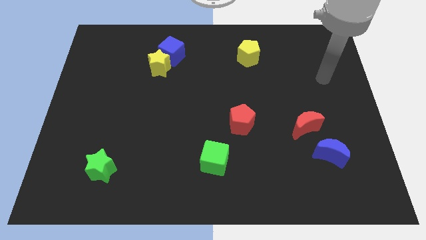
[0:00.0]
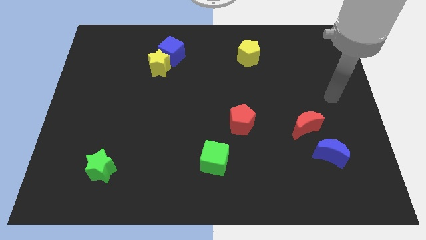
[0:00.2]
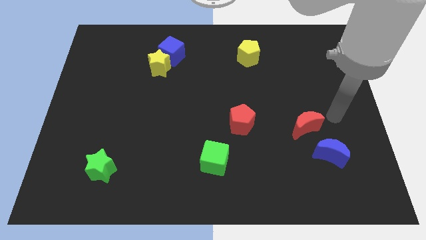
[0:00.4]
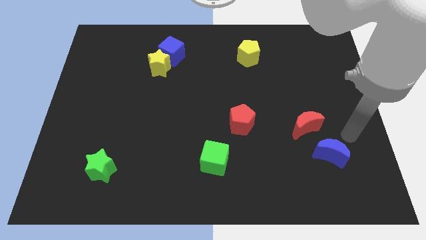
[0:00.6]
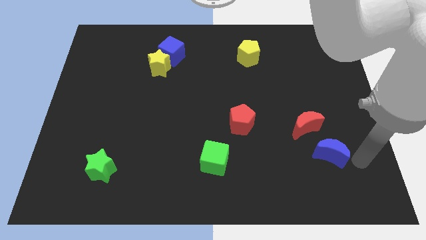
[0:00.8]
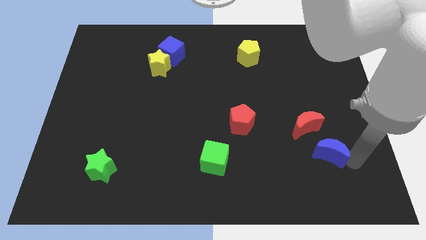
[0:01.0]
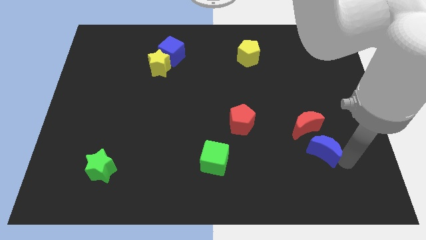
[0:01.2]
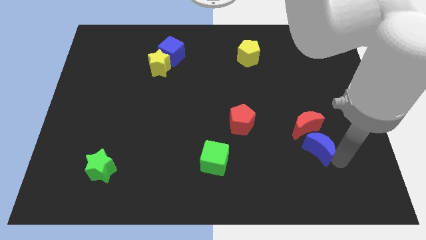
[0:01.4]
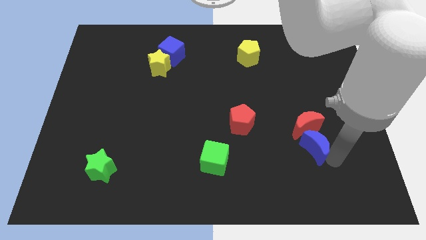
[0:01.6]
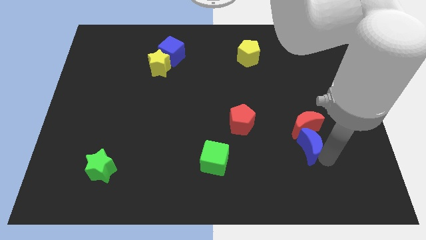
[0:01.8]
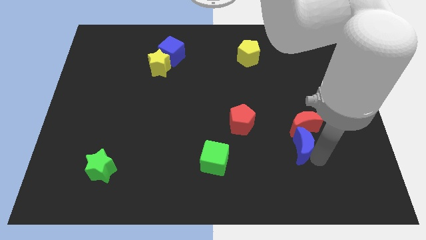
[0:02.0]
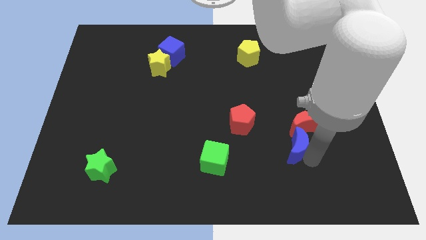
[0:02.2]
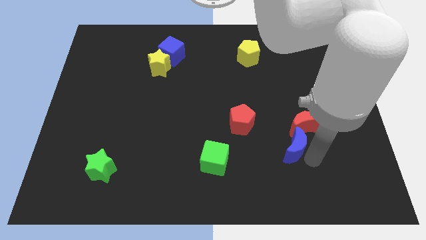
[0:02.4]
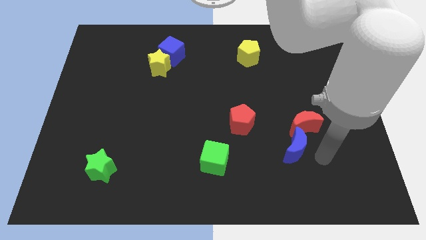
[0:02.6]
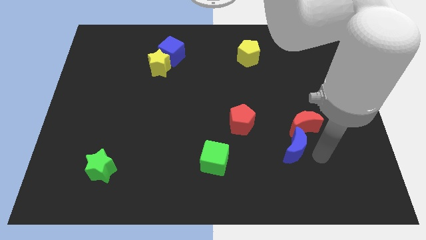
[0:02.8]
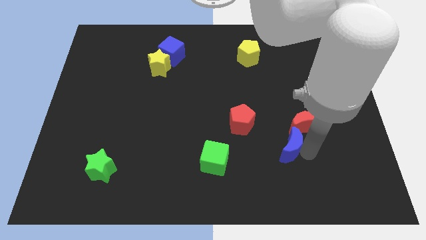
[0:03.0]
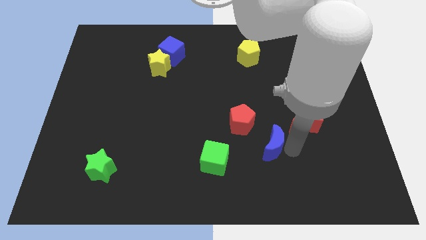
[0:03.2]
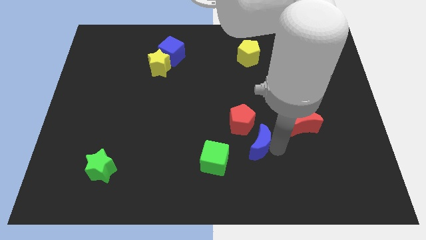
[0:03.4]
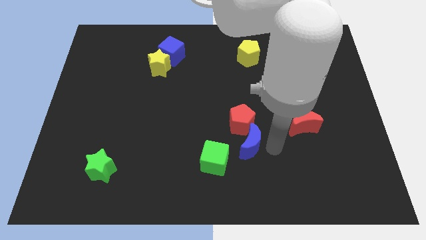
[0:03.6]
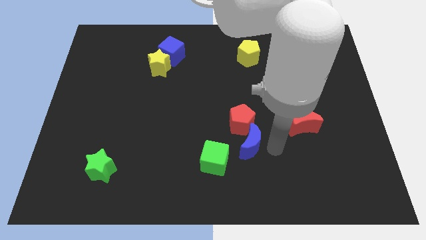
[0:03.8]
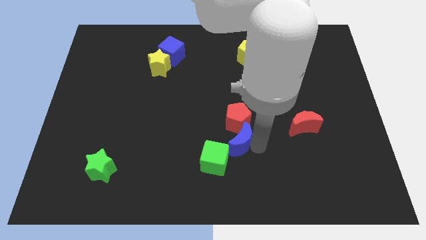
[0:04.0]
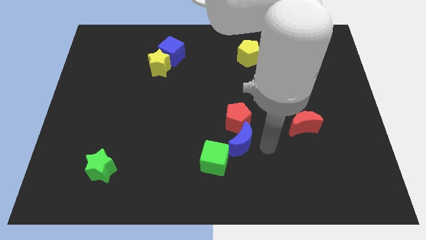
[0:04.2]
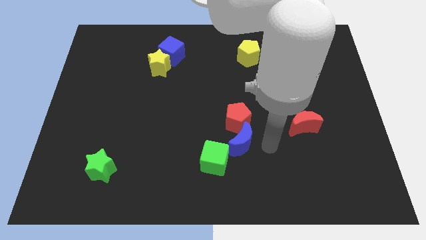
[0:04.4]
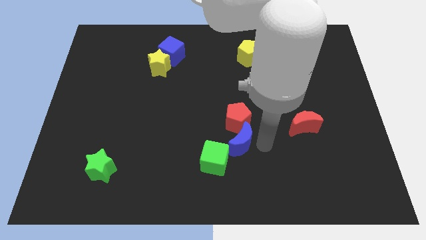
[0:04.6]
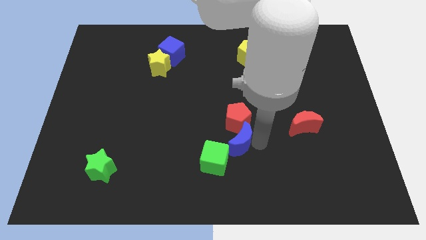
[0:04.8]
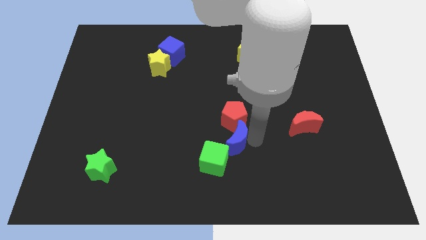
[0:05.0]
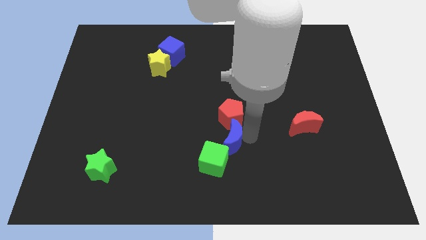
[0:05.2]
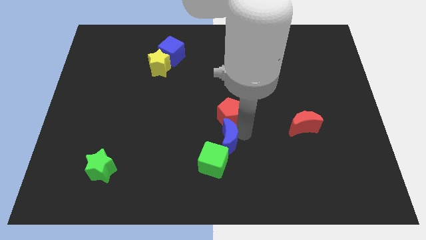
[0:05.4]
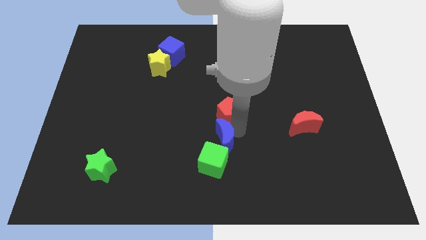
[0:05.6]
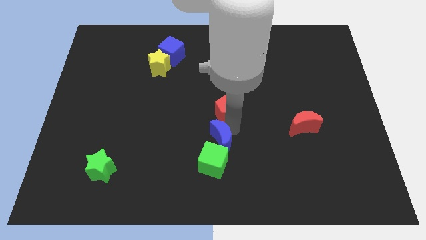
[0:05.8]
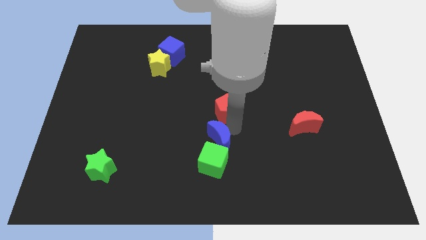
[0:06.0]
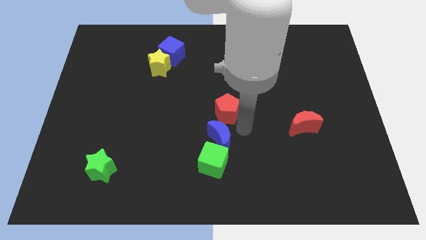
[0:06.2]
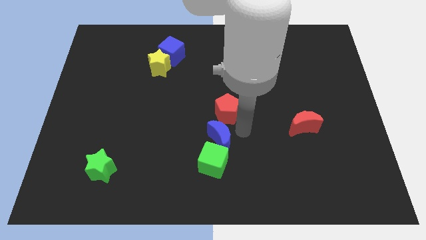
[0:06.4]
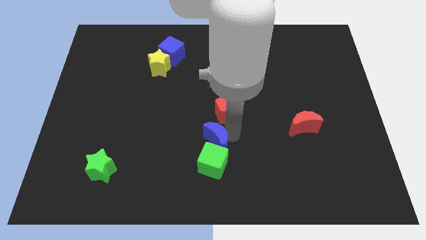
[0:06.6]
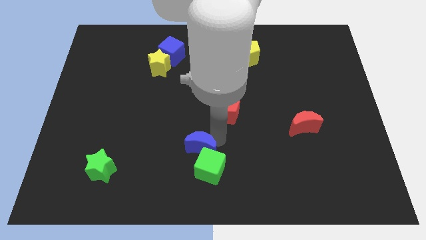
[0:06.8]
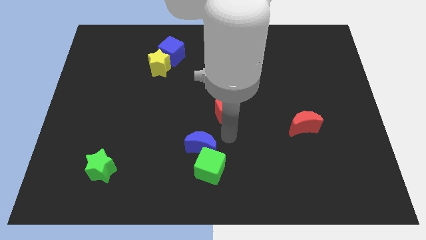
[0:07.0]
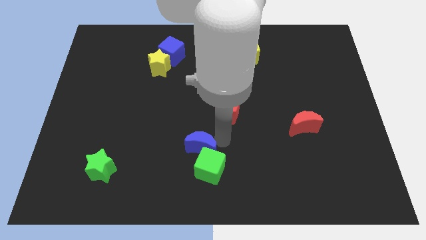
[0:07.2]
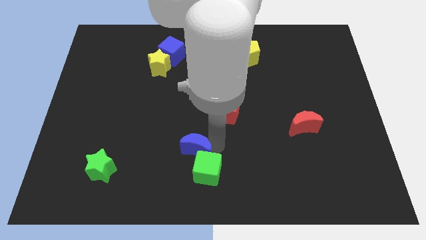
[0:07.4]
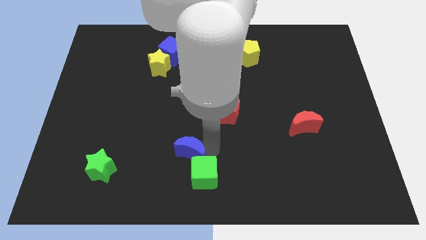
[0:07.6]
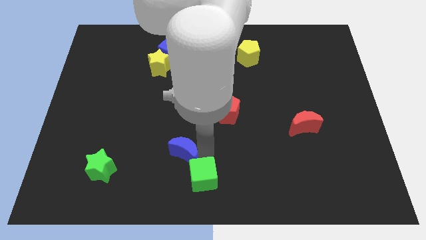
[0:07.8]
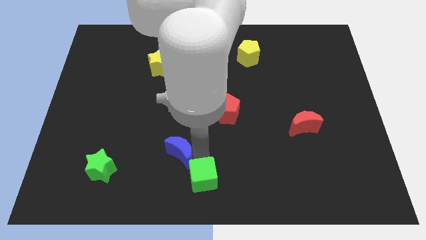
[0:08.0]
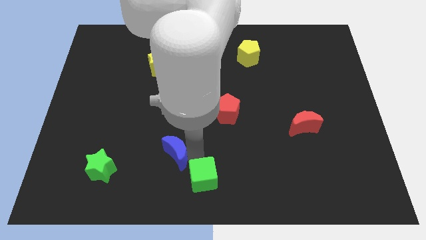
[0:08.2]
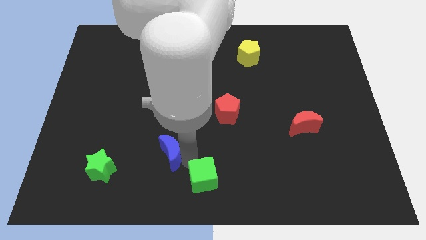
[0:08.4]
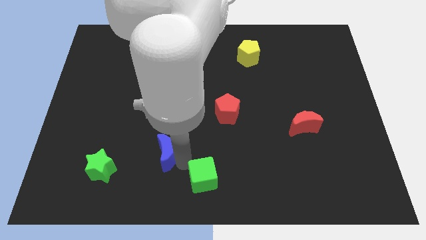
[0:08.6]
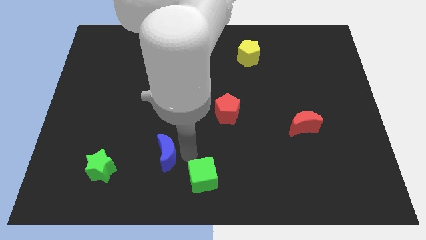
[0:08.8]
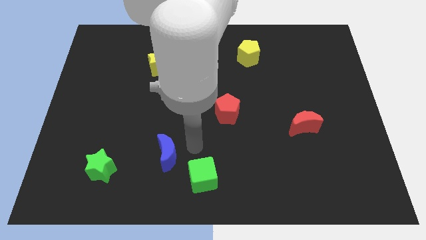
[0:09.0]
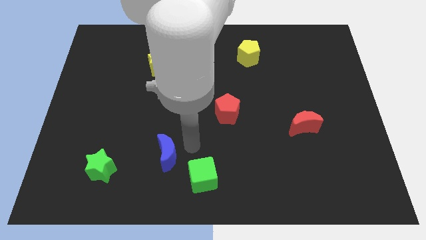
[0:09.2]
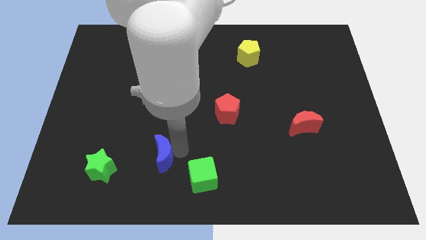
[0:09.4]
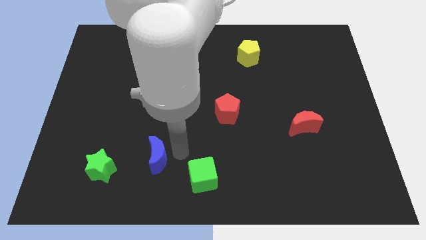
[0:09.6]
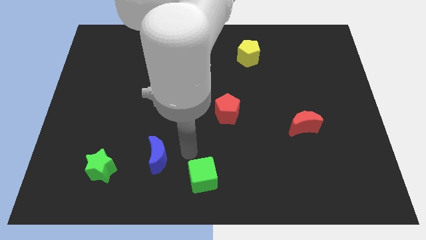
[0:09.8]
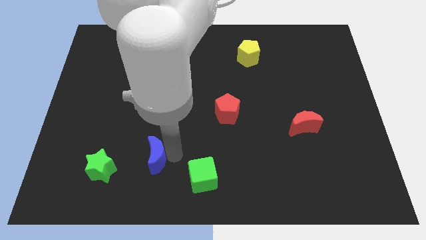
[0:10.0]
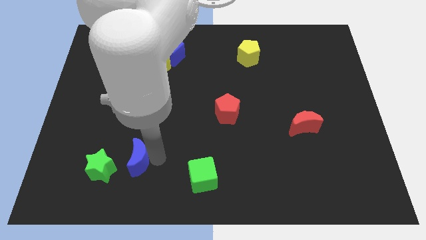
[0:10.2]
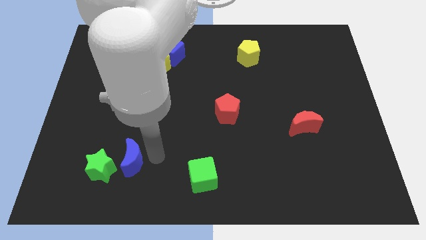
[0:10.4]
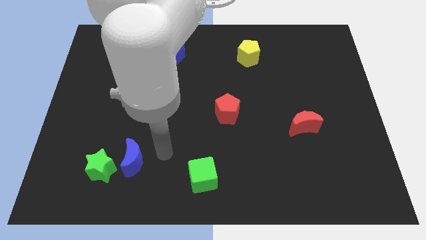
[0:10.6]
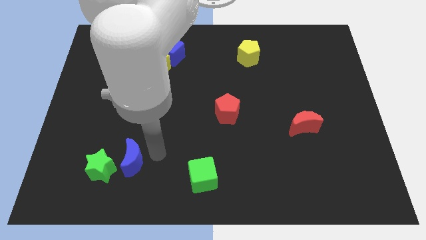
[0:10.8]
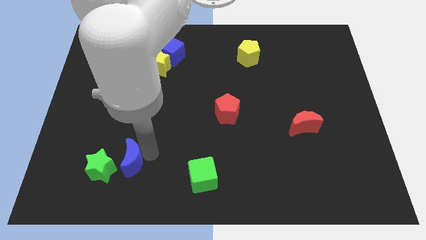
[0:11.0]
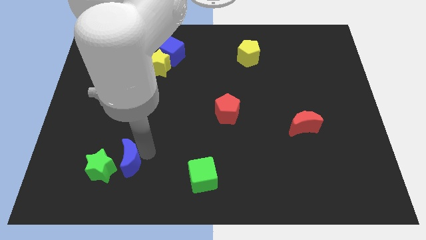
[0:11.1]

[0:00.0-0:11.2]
push the blue moon towards the green star

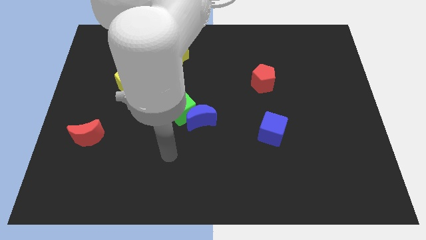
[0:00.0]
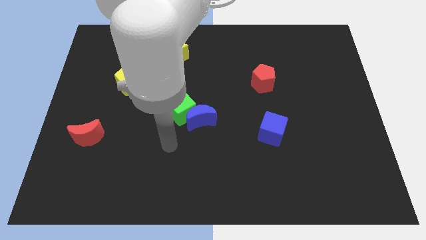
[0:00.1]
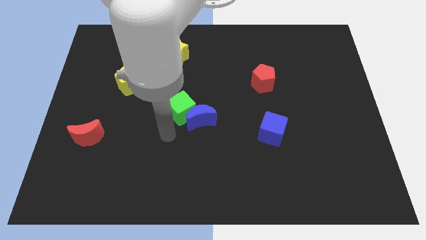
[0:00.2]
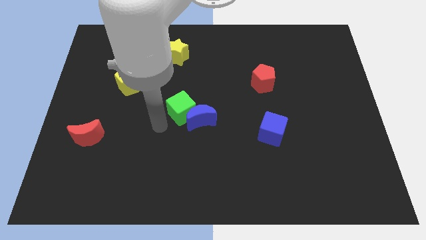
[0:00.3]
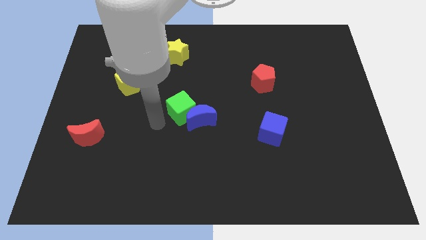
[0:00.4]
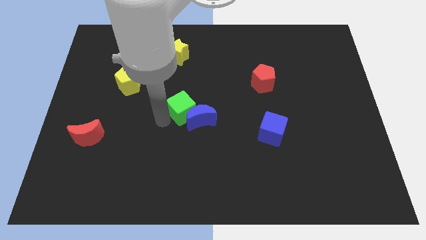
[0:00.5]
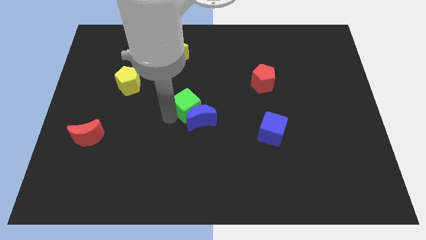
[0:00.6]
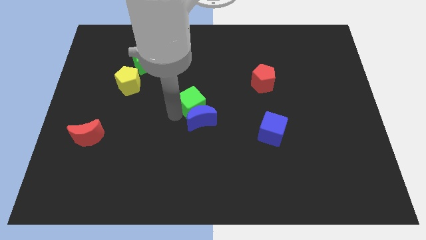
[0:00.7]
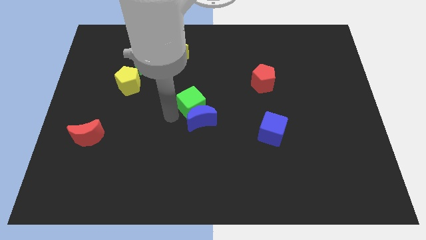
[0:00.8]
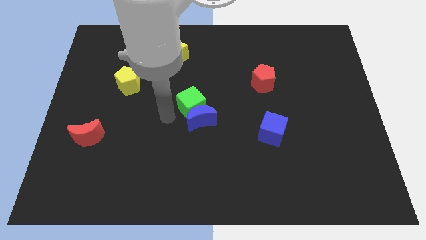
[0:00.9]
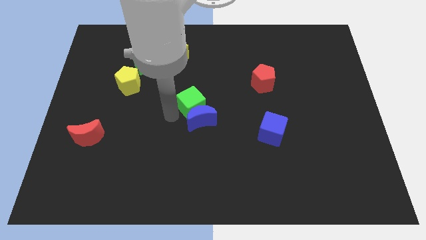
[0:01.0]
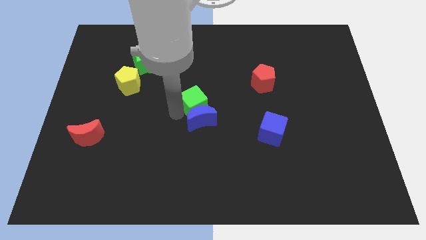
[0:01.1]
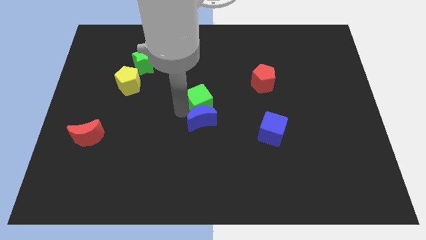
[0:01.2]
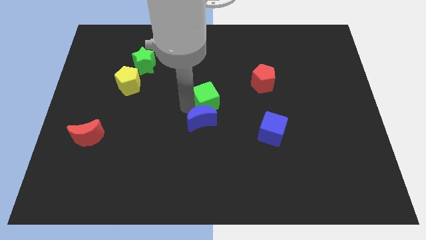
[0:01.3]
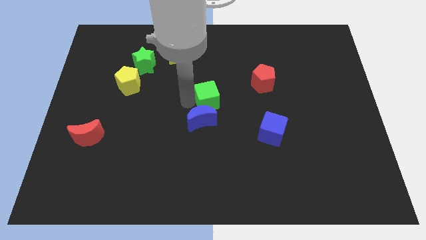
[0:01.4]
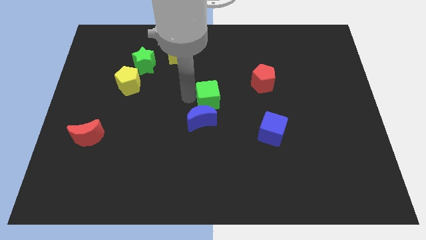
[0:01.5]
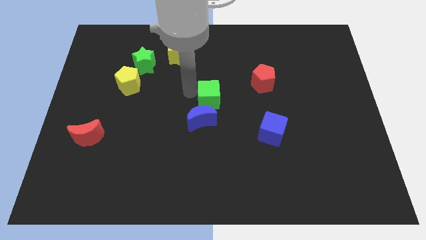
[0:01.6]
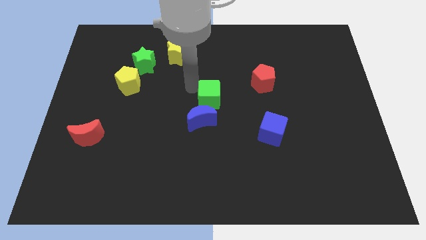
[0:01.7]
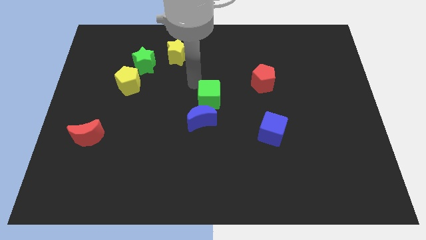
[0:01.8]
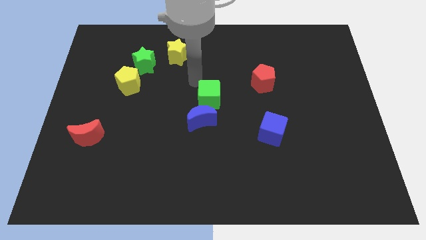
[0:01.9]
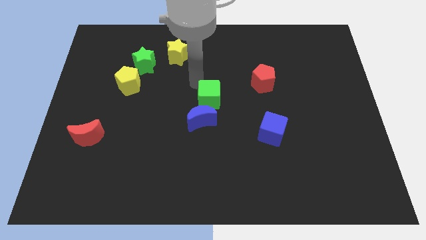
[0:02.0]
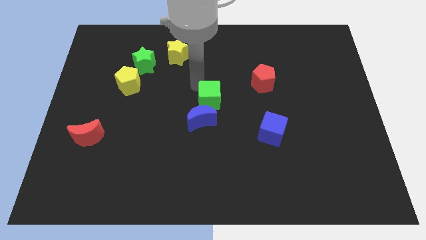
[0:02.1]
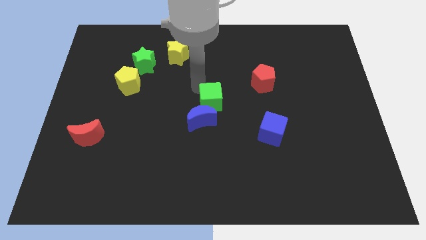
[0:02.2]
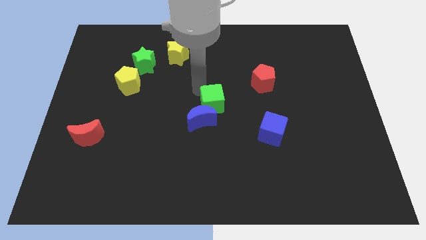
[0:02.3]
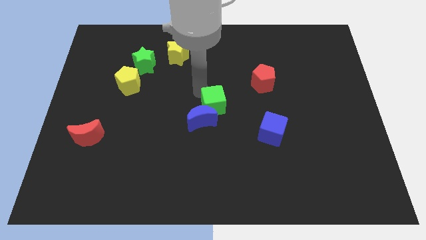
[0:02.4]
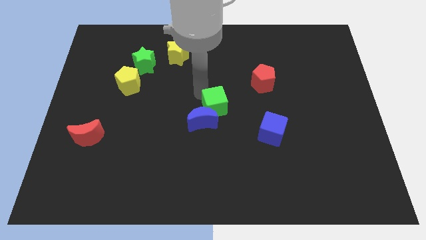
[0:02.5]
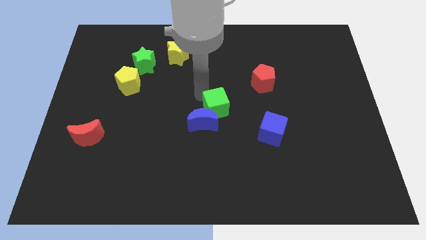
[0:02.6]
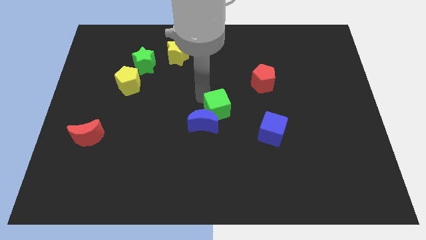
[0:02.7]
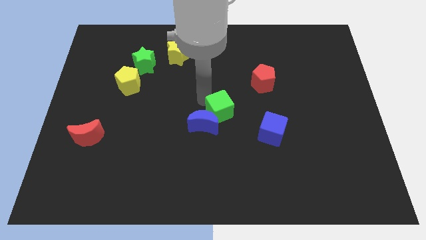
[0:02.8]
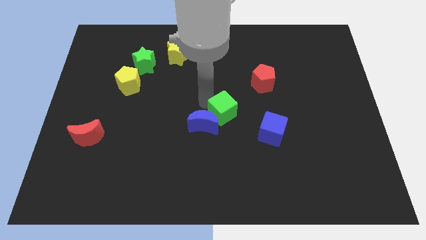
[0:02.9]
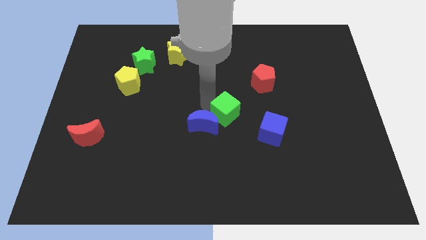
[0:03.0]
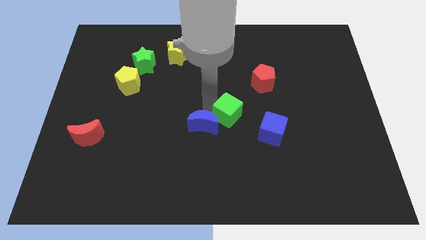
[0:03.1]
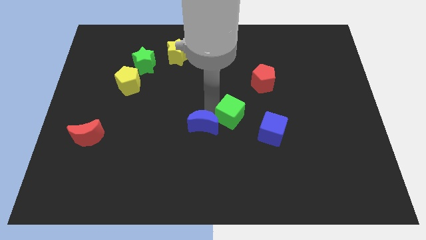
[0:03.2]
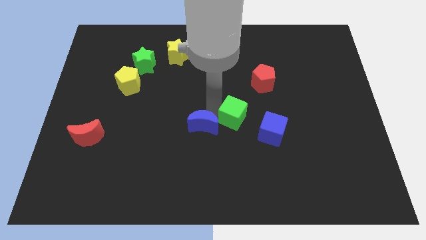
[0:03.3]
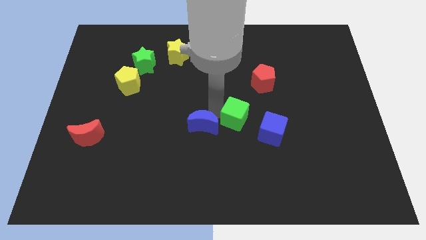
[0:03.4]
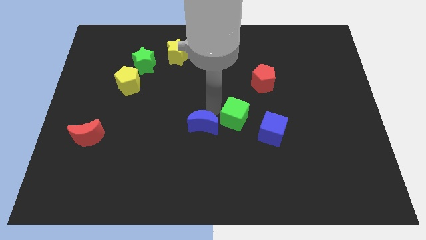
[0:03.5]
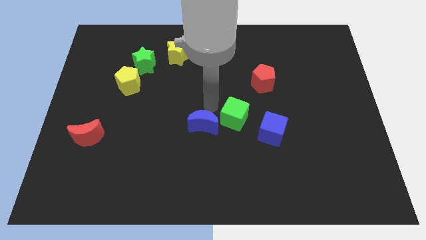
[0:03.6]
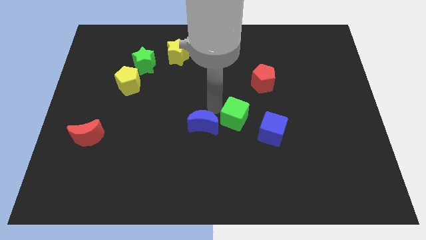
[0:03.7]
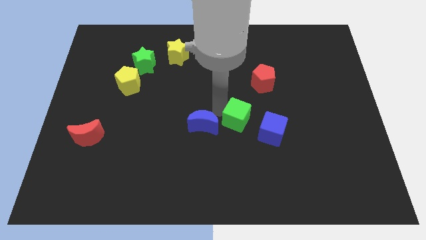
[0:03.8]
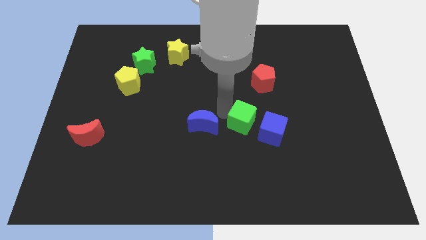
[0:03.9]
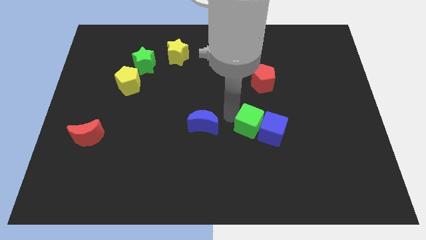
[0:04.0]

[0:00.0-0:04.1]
move the green cube towards the blue cube
